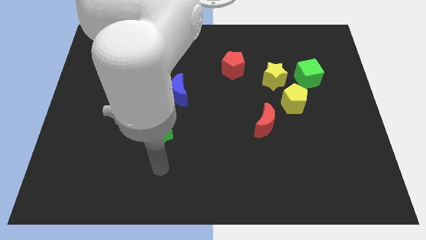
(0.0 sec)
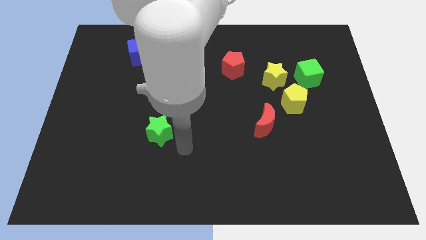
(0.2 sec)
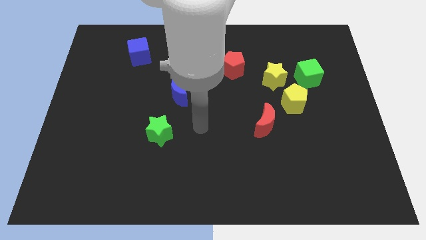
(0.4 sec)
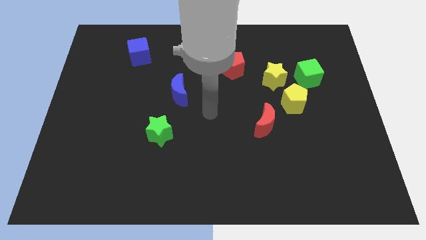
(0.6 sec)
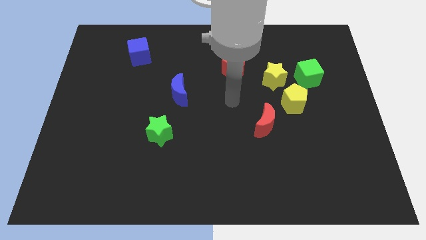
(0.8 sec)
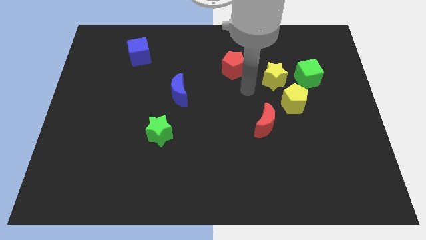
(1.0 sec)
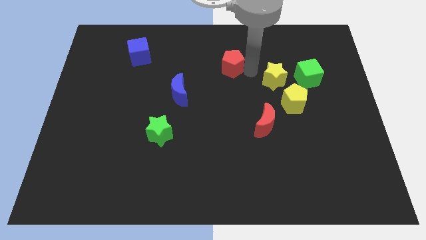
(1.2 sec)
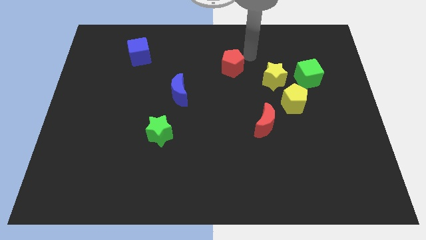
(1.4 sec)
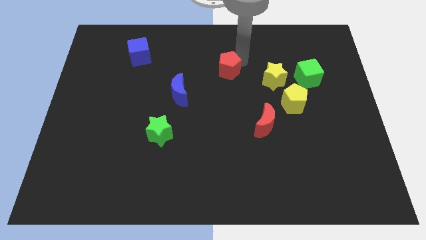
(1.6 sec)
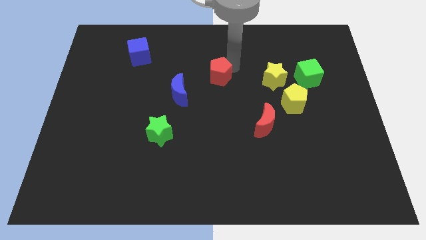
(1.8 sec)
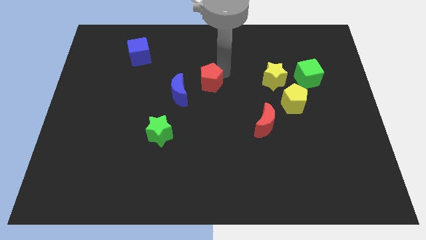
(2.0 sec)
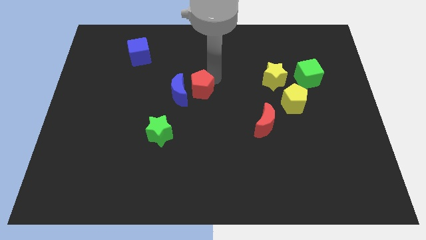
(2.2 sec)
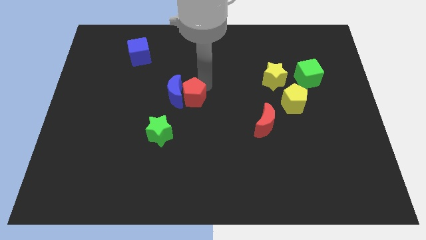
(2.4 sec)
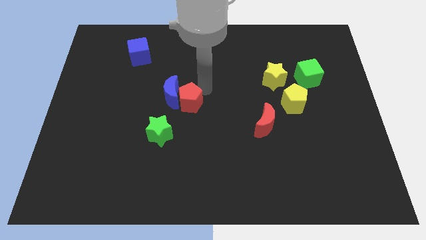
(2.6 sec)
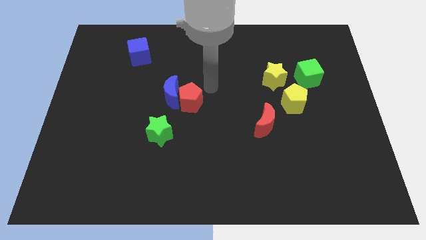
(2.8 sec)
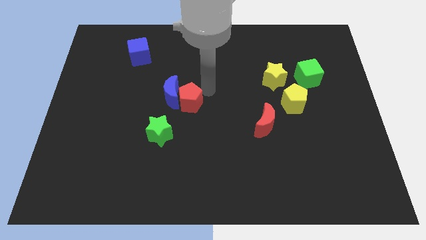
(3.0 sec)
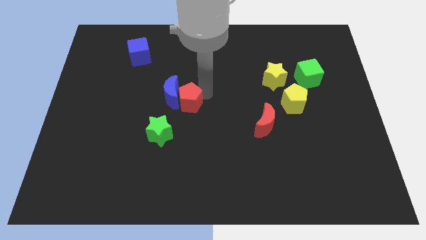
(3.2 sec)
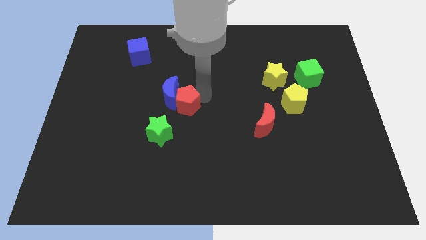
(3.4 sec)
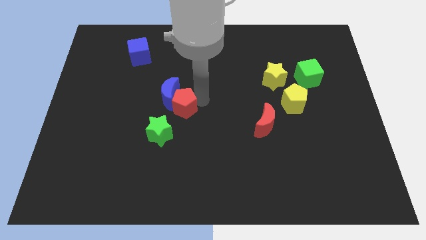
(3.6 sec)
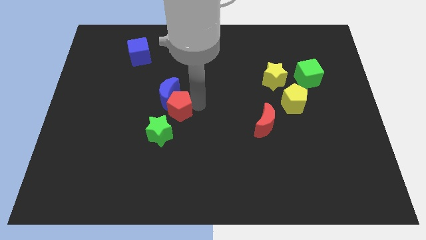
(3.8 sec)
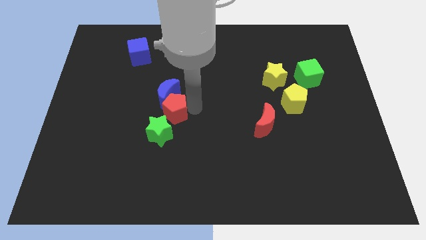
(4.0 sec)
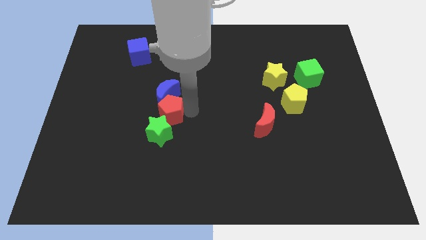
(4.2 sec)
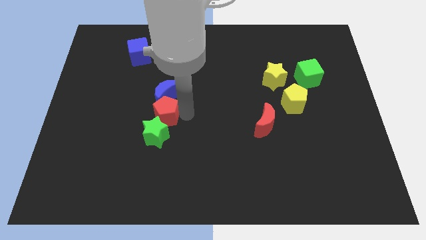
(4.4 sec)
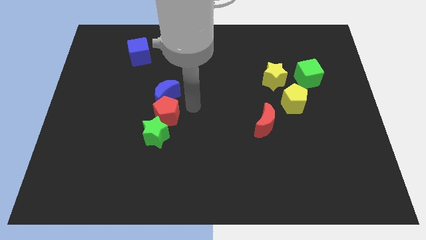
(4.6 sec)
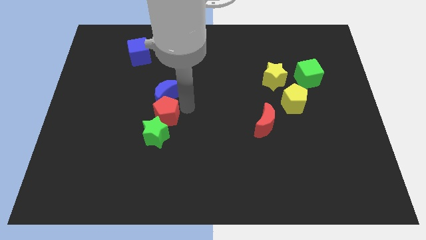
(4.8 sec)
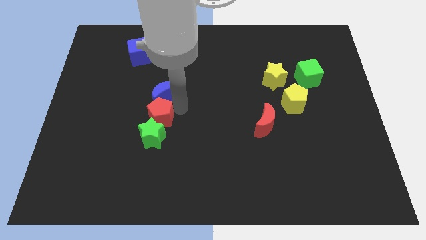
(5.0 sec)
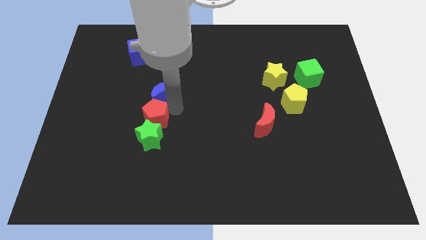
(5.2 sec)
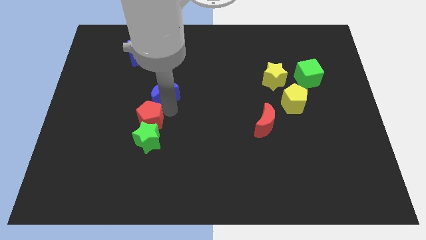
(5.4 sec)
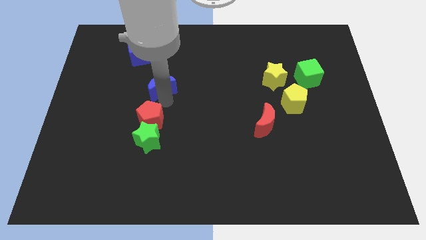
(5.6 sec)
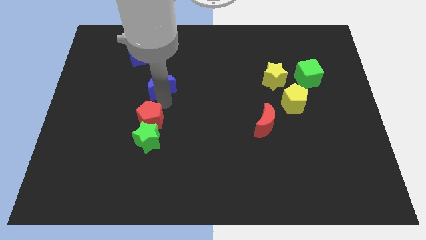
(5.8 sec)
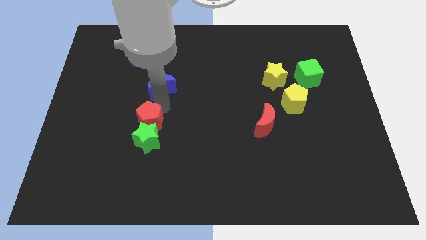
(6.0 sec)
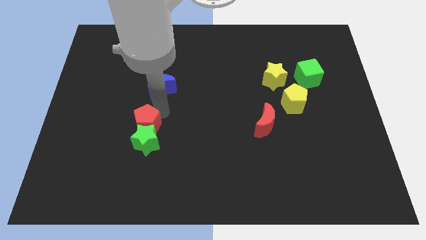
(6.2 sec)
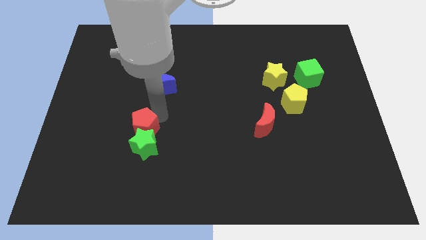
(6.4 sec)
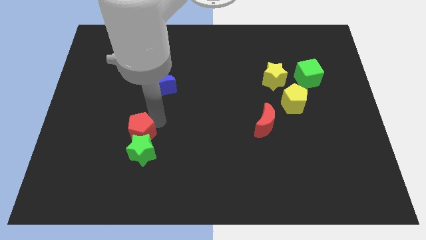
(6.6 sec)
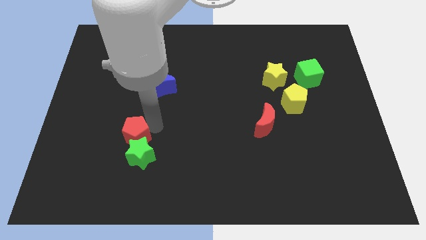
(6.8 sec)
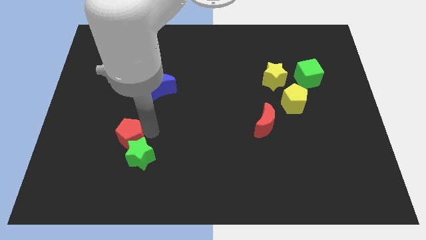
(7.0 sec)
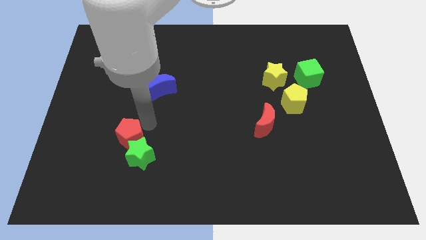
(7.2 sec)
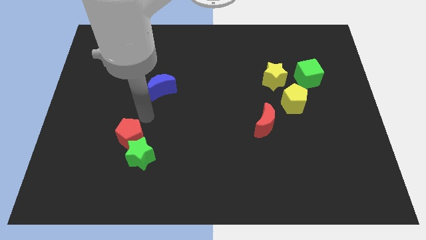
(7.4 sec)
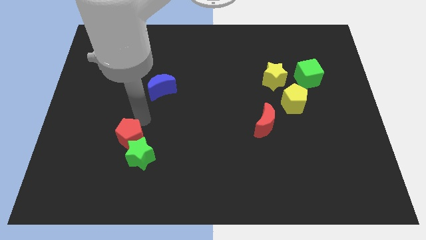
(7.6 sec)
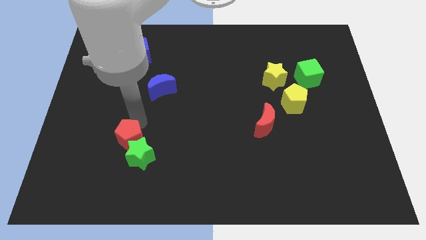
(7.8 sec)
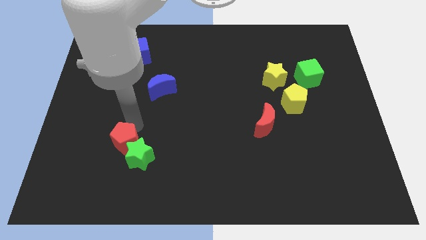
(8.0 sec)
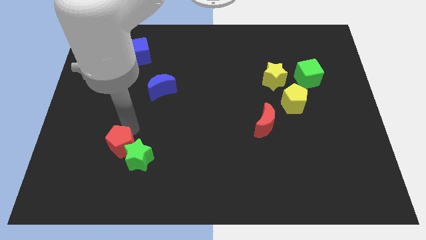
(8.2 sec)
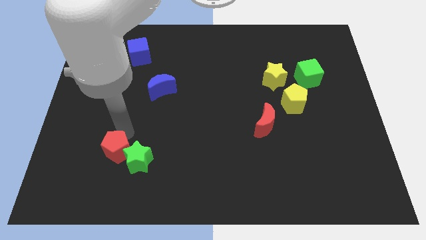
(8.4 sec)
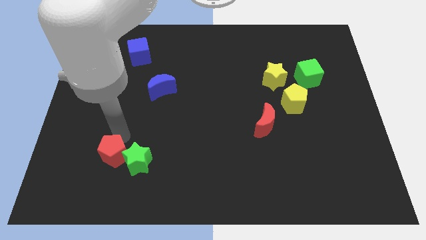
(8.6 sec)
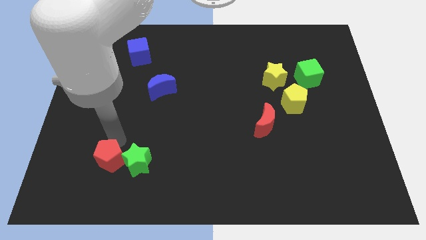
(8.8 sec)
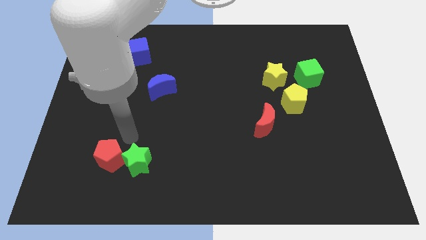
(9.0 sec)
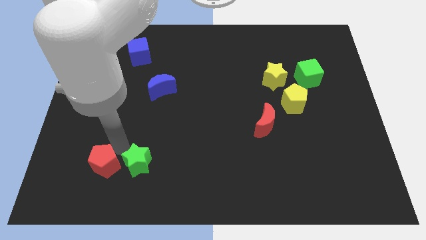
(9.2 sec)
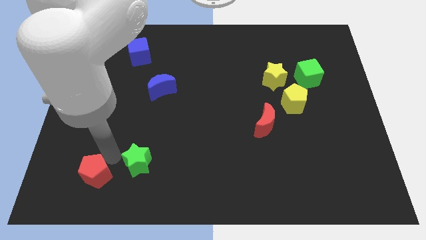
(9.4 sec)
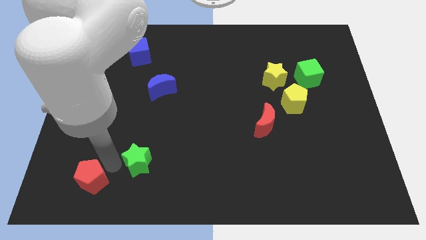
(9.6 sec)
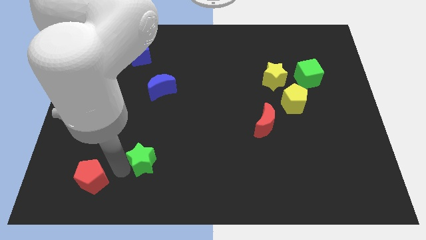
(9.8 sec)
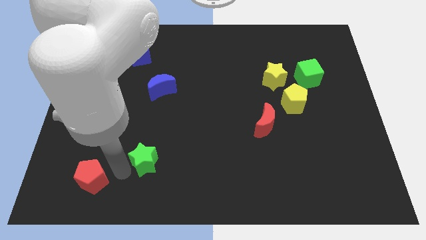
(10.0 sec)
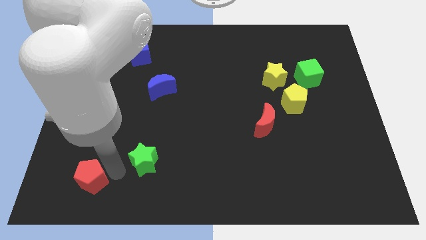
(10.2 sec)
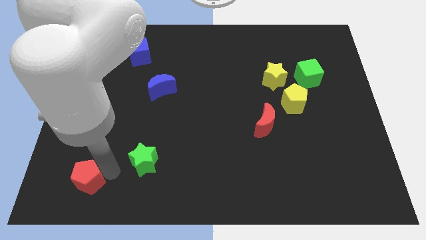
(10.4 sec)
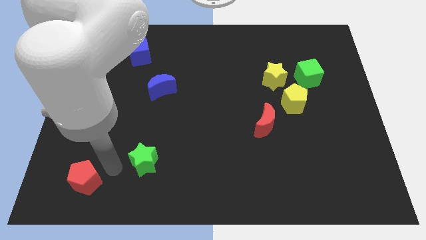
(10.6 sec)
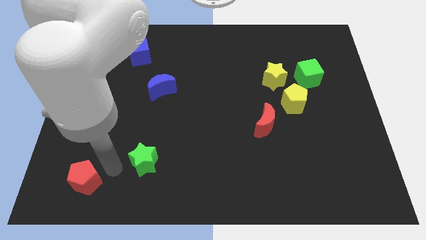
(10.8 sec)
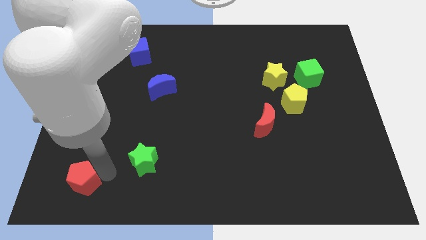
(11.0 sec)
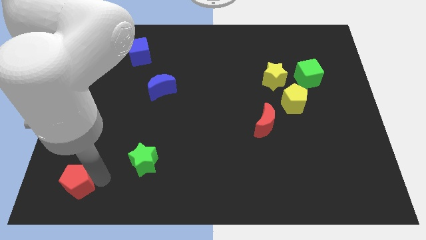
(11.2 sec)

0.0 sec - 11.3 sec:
put the red pentagon to the bottom left of the board

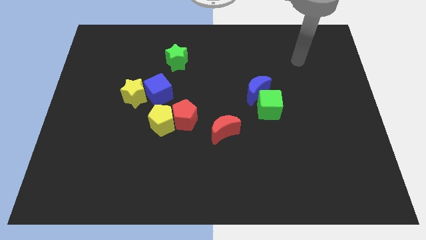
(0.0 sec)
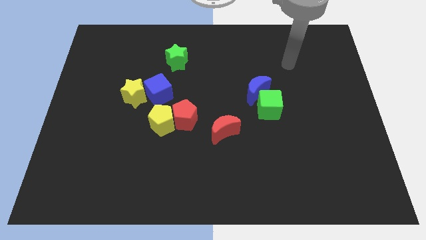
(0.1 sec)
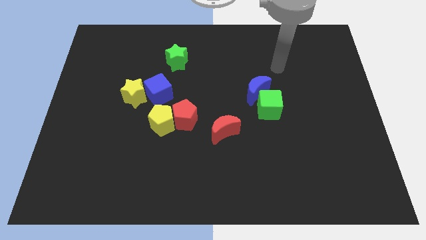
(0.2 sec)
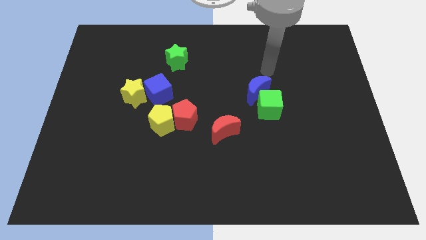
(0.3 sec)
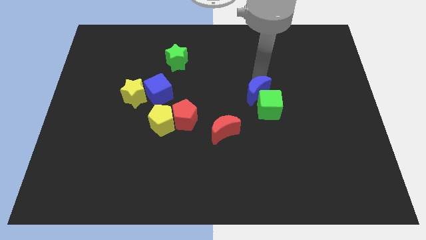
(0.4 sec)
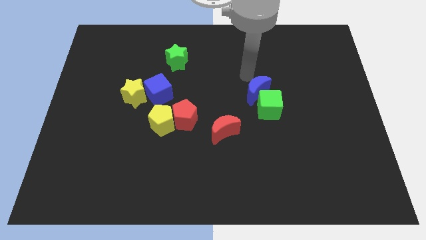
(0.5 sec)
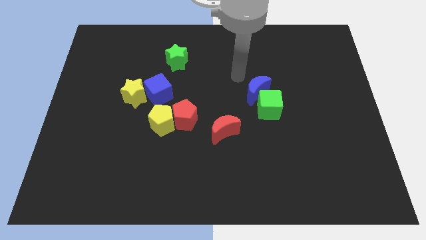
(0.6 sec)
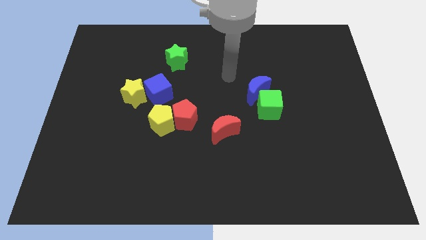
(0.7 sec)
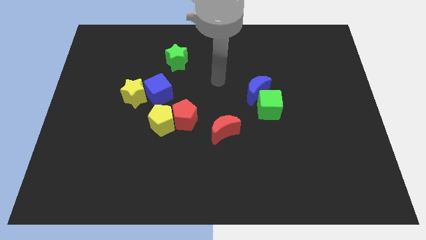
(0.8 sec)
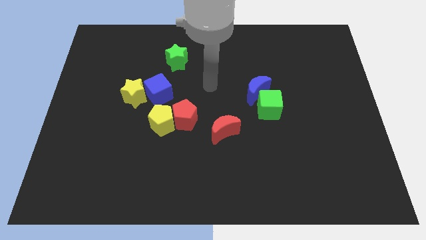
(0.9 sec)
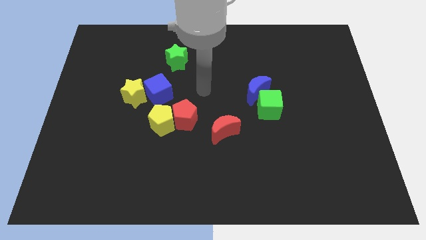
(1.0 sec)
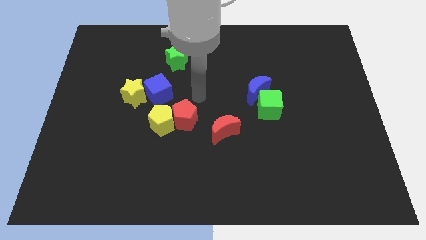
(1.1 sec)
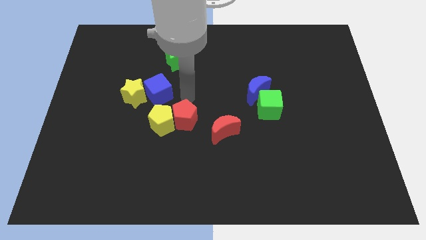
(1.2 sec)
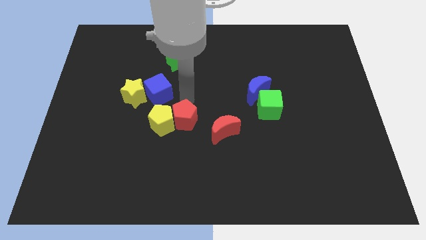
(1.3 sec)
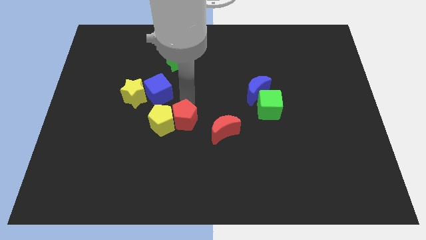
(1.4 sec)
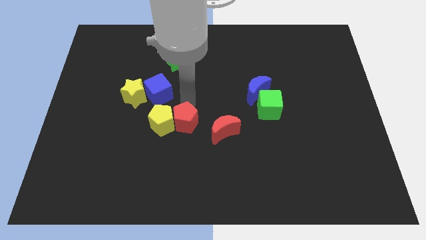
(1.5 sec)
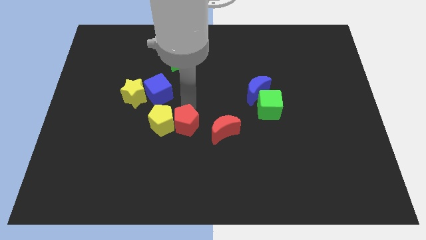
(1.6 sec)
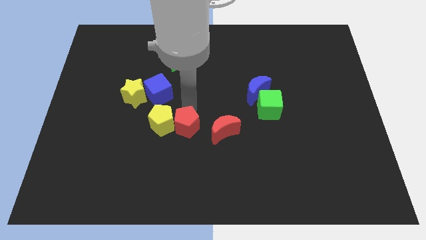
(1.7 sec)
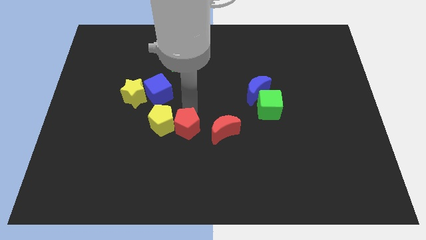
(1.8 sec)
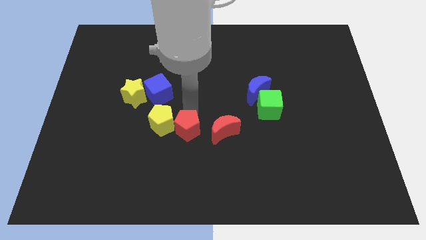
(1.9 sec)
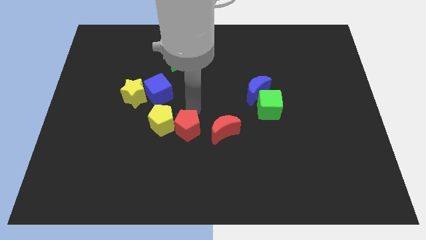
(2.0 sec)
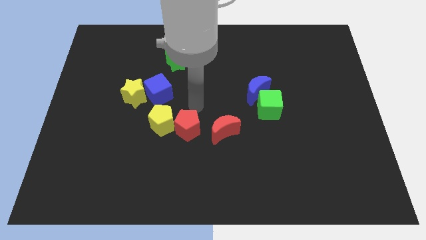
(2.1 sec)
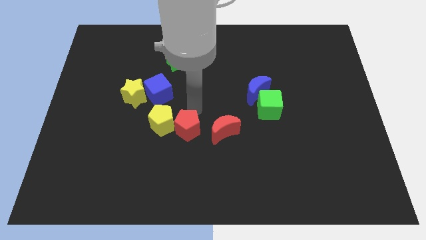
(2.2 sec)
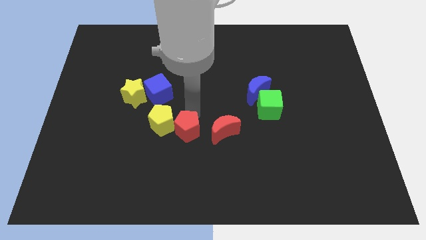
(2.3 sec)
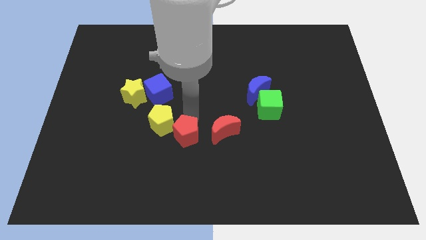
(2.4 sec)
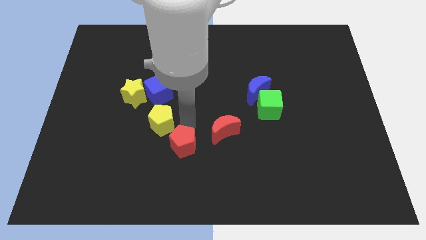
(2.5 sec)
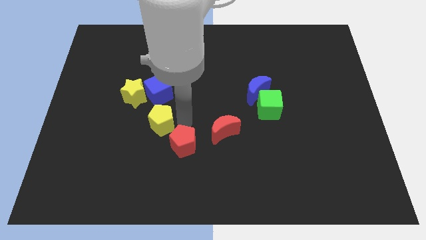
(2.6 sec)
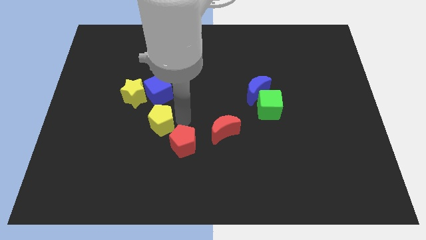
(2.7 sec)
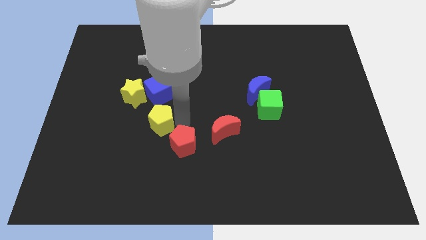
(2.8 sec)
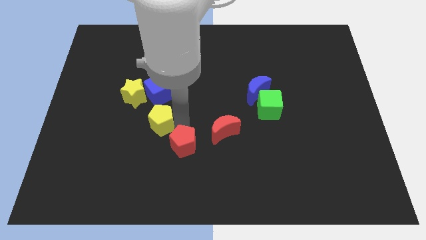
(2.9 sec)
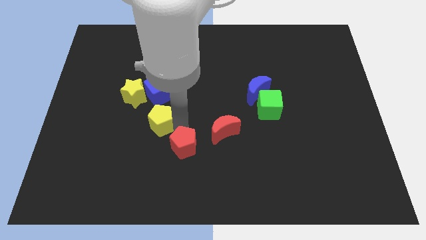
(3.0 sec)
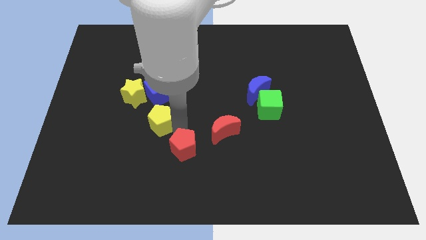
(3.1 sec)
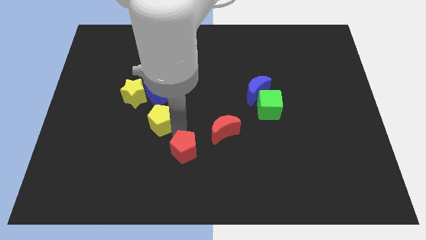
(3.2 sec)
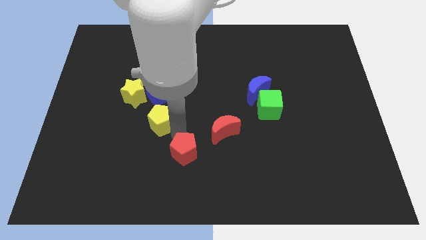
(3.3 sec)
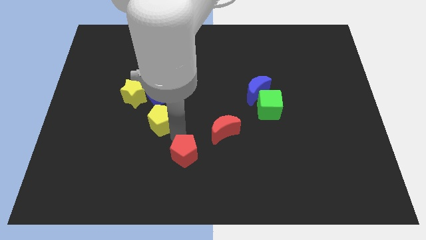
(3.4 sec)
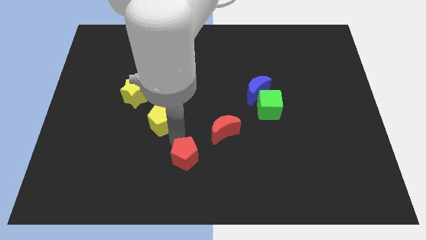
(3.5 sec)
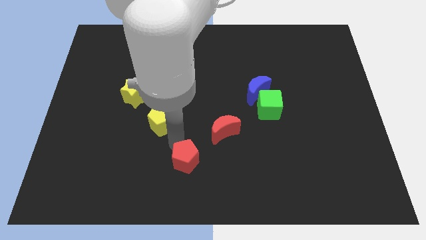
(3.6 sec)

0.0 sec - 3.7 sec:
move the red pentagon to the bottom side
